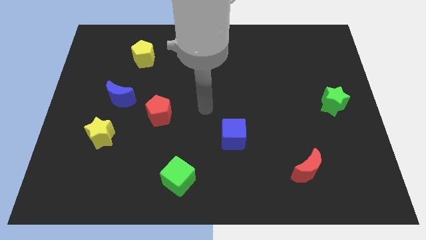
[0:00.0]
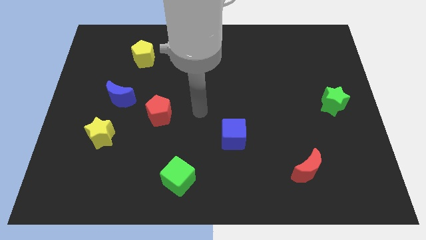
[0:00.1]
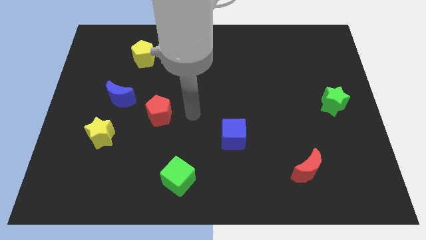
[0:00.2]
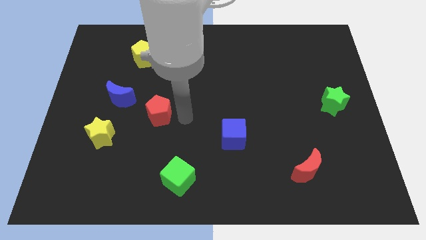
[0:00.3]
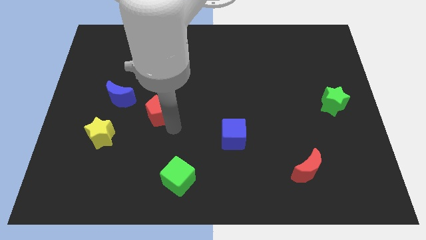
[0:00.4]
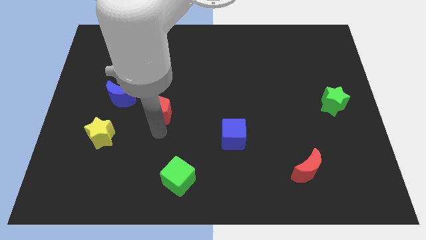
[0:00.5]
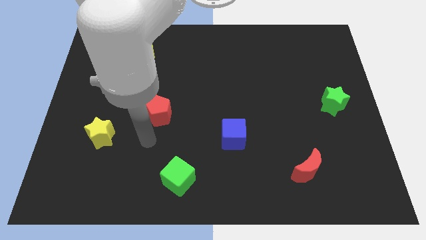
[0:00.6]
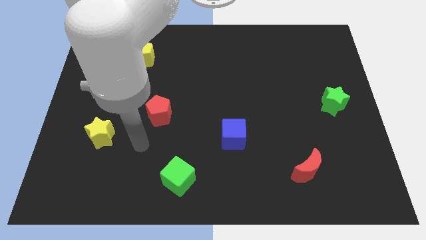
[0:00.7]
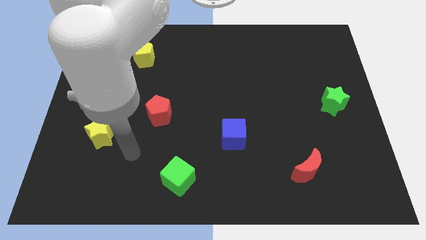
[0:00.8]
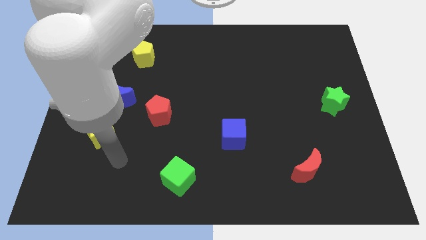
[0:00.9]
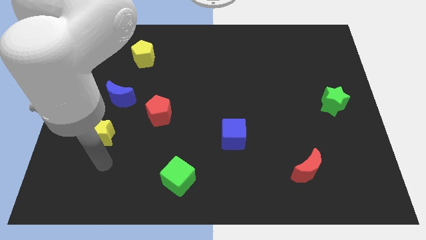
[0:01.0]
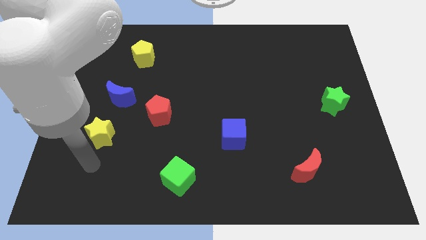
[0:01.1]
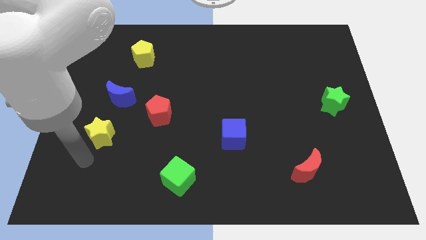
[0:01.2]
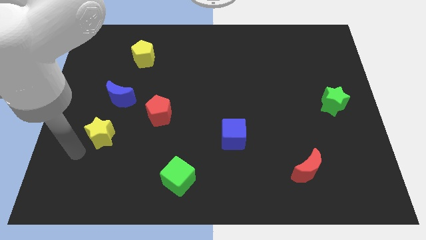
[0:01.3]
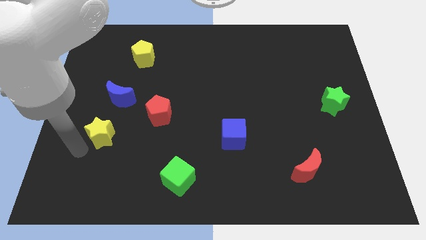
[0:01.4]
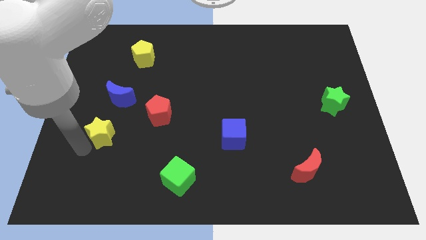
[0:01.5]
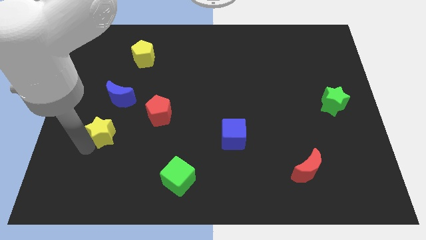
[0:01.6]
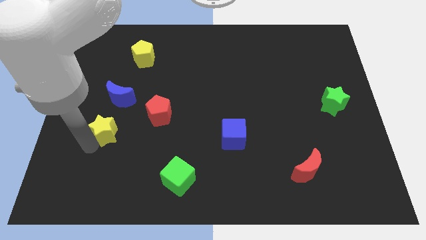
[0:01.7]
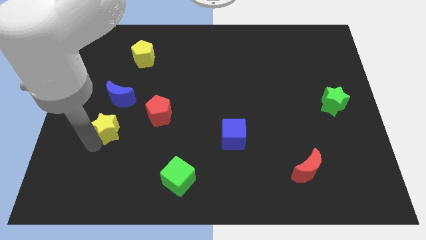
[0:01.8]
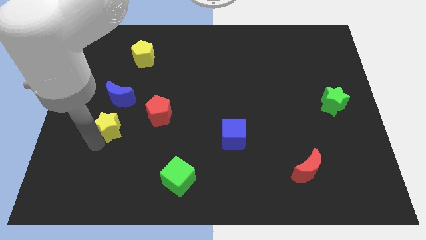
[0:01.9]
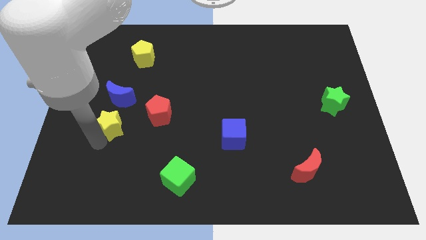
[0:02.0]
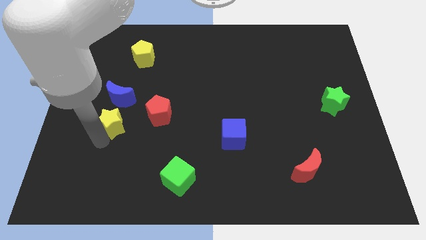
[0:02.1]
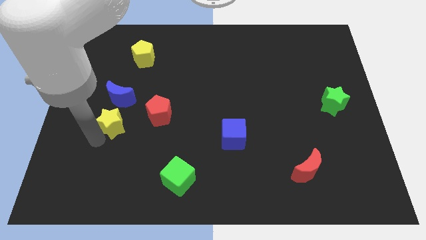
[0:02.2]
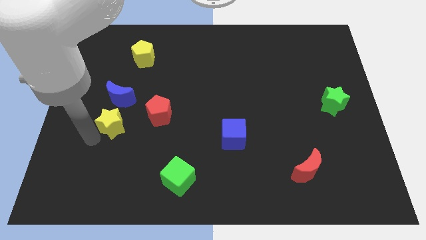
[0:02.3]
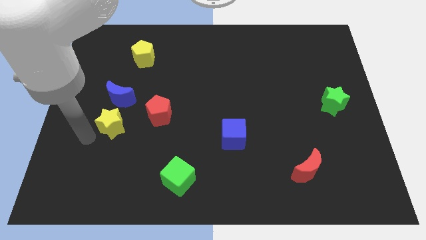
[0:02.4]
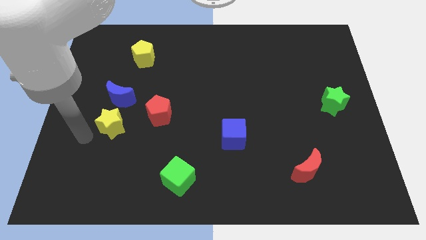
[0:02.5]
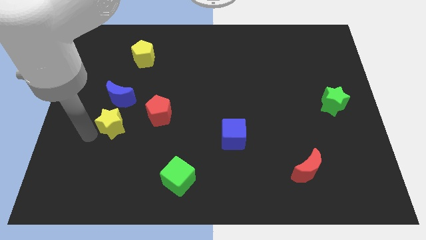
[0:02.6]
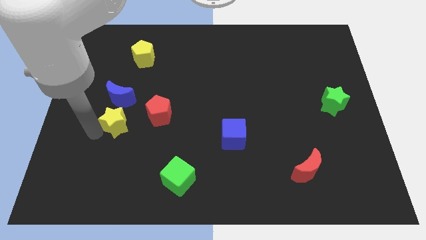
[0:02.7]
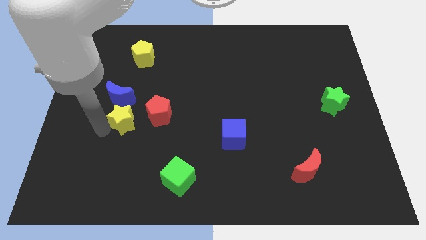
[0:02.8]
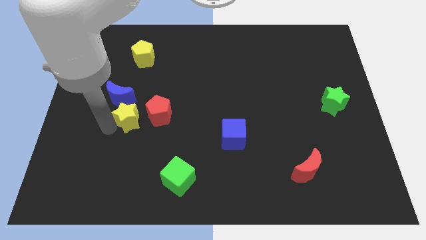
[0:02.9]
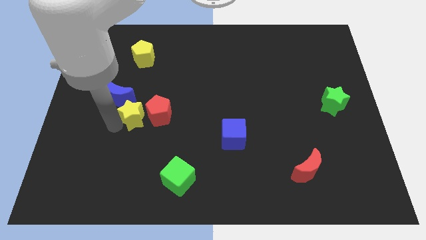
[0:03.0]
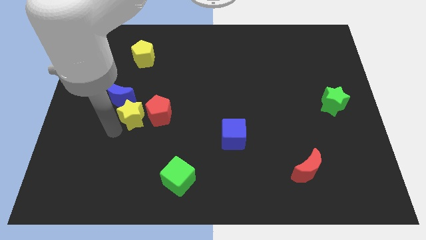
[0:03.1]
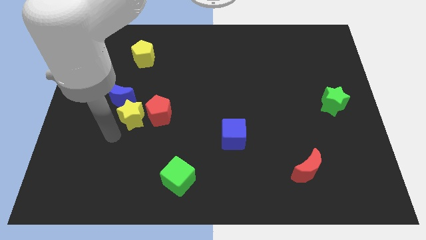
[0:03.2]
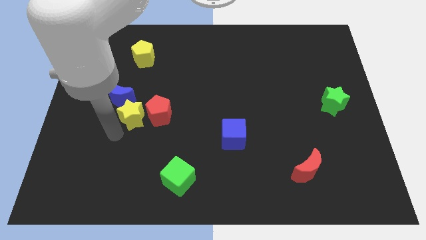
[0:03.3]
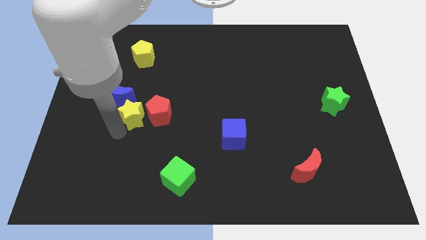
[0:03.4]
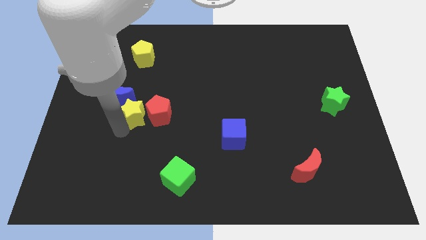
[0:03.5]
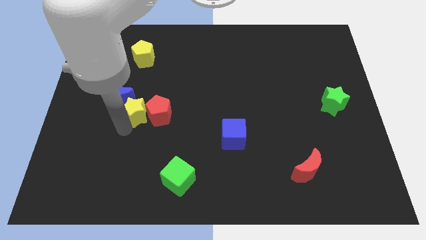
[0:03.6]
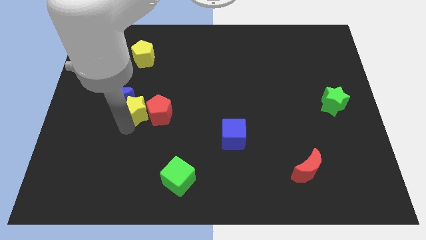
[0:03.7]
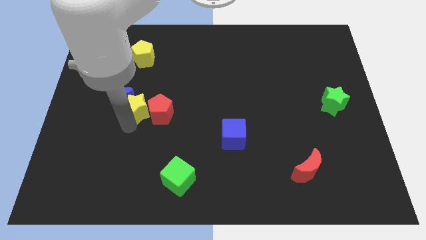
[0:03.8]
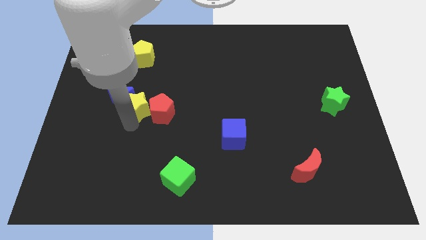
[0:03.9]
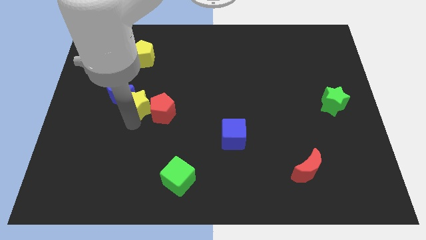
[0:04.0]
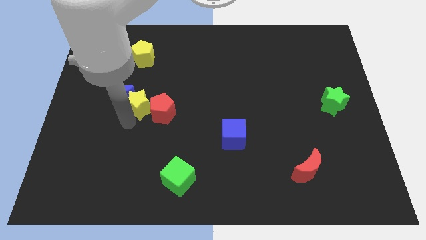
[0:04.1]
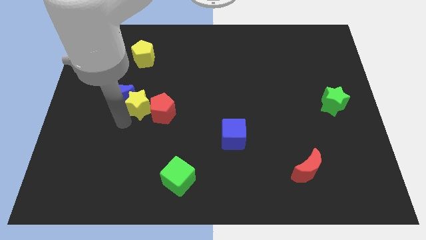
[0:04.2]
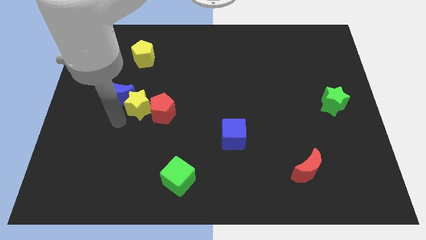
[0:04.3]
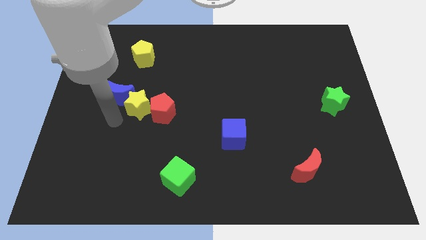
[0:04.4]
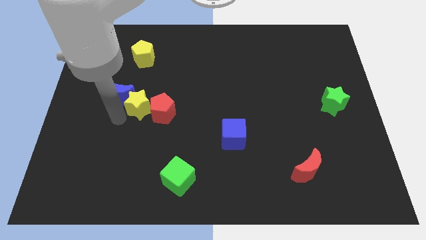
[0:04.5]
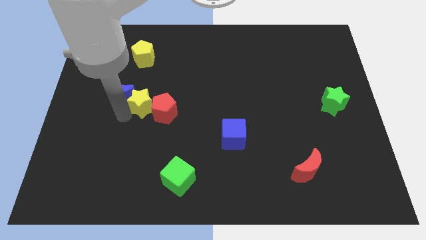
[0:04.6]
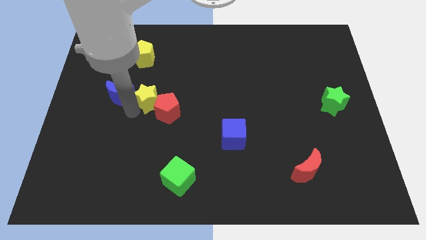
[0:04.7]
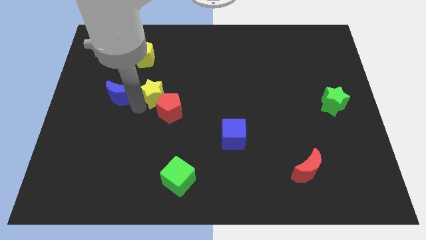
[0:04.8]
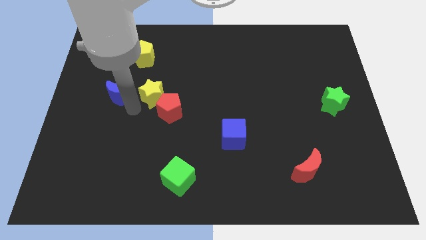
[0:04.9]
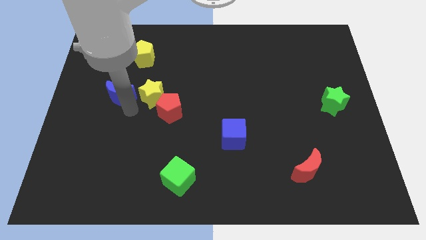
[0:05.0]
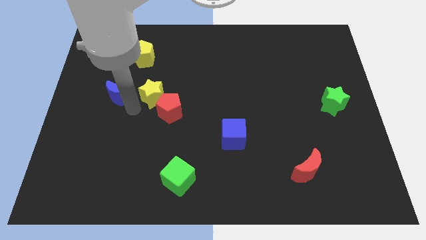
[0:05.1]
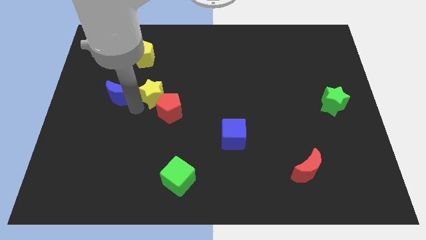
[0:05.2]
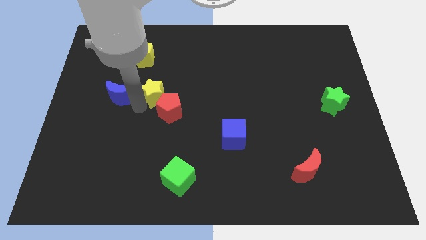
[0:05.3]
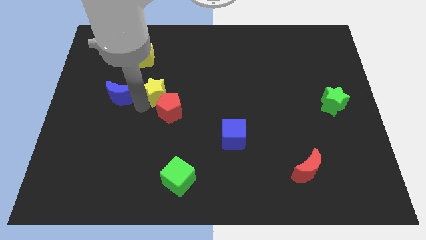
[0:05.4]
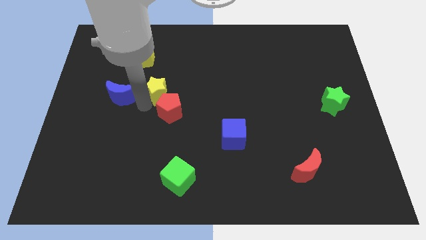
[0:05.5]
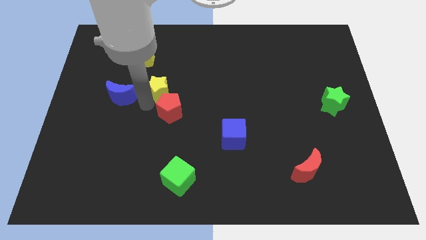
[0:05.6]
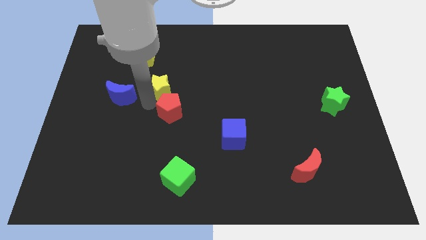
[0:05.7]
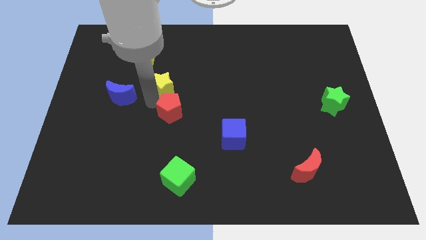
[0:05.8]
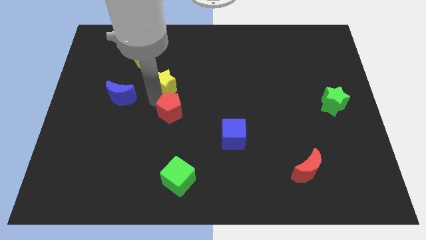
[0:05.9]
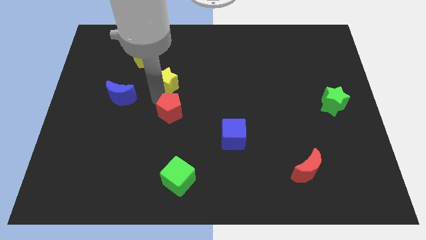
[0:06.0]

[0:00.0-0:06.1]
slide the yellow star upwards and to the right diagonally

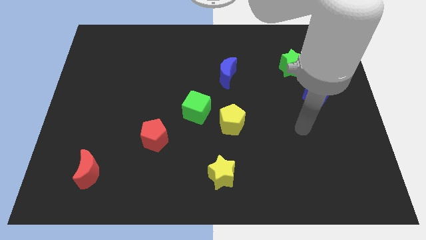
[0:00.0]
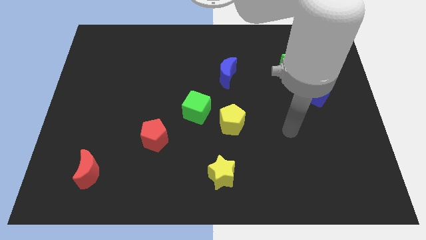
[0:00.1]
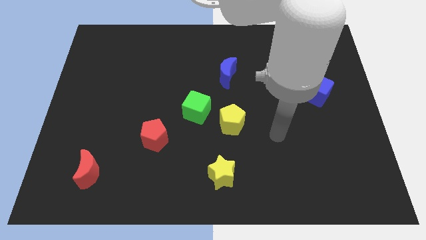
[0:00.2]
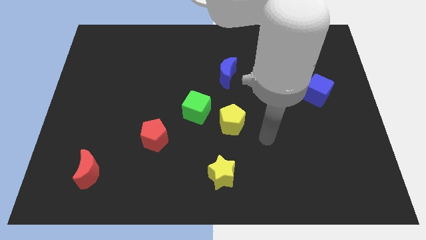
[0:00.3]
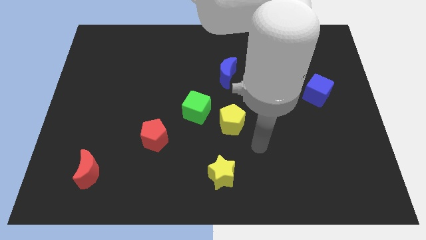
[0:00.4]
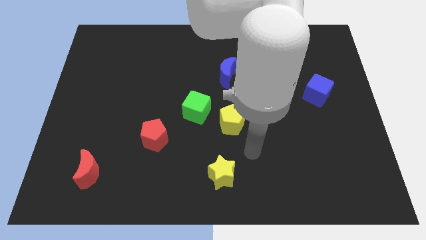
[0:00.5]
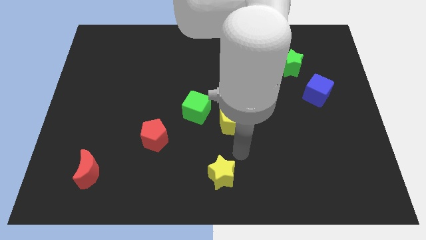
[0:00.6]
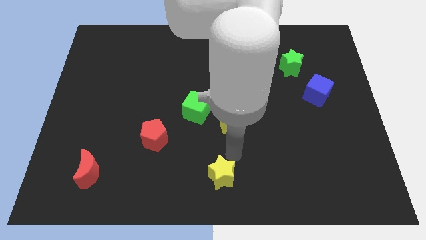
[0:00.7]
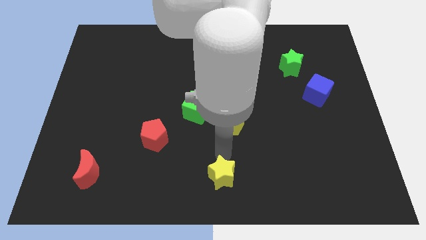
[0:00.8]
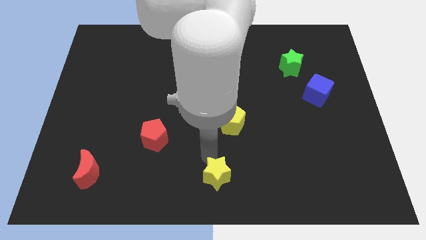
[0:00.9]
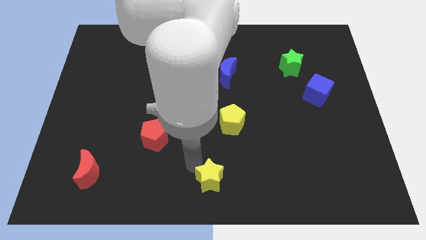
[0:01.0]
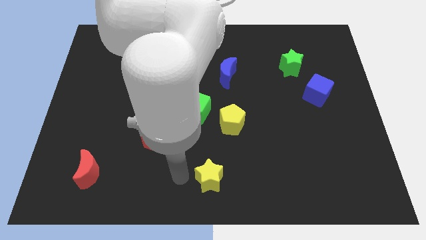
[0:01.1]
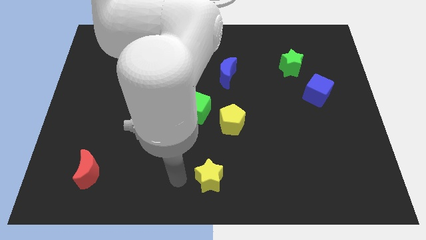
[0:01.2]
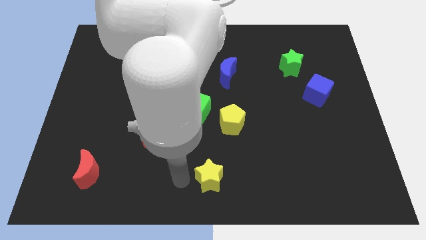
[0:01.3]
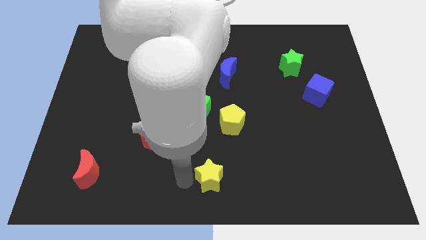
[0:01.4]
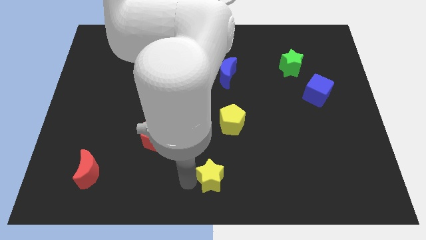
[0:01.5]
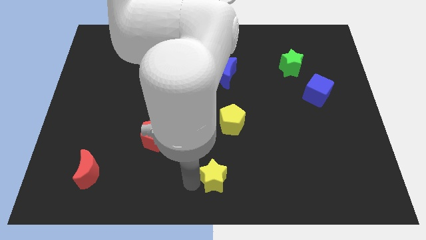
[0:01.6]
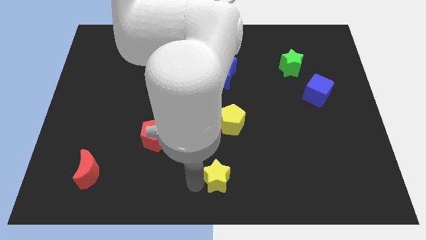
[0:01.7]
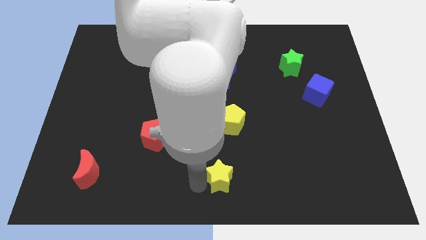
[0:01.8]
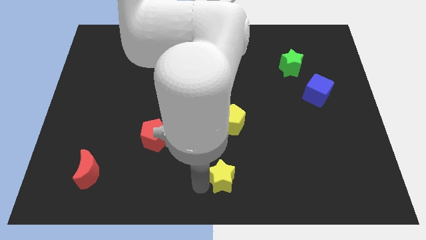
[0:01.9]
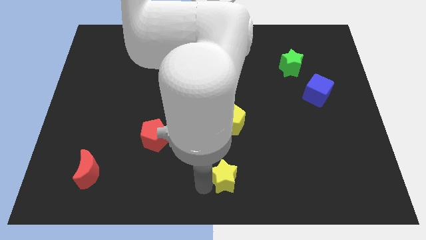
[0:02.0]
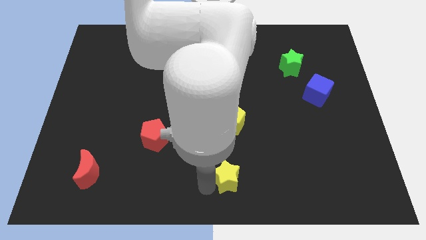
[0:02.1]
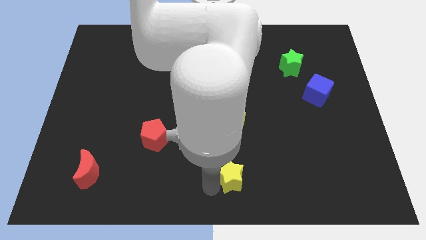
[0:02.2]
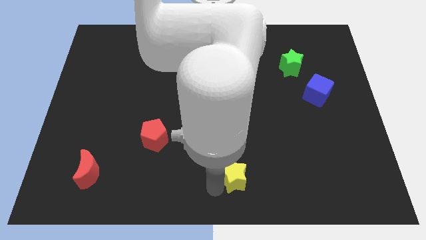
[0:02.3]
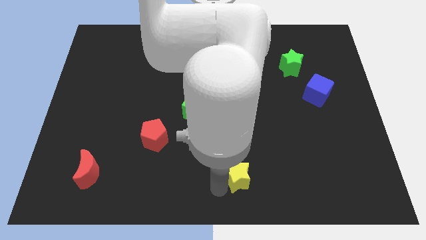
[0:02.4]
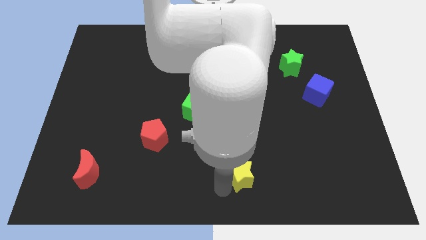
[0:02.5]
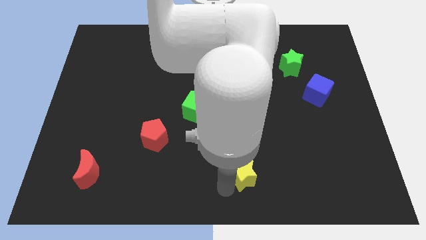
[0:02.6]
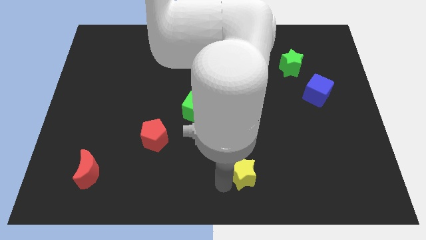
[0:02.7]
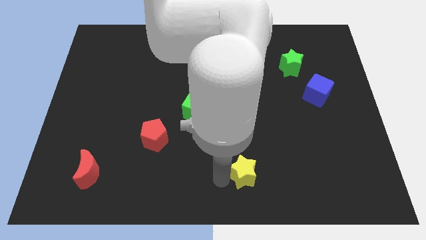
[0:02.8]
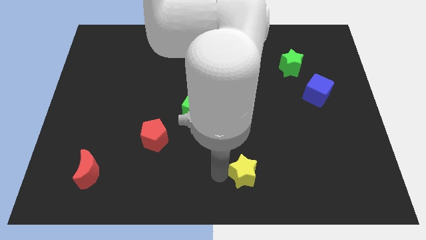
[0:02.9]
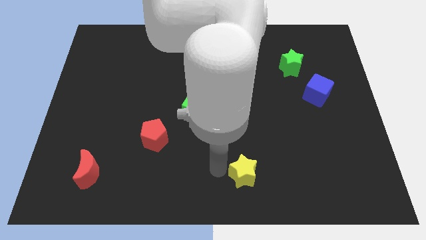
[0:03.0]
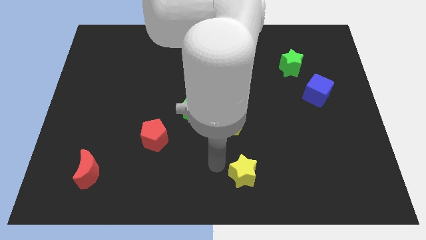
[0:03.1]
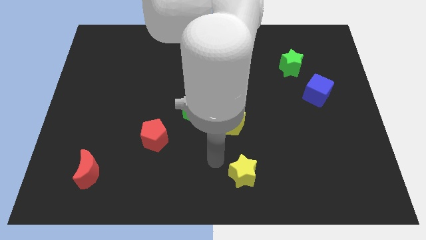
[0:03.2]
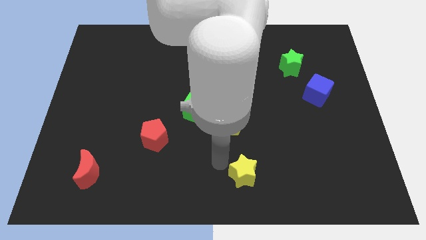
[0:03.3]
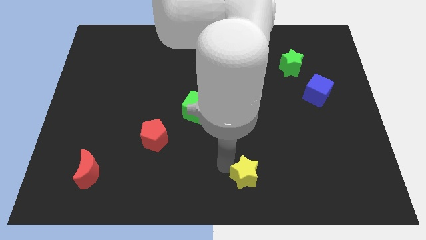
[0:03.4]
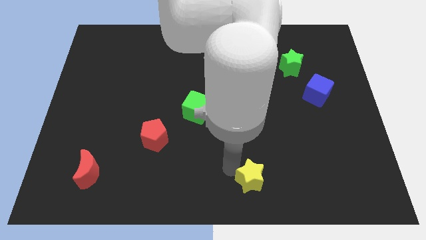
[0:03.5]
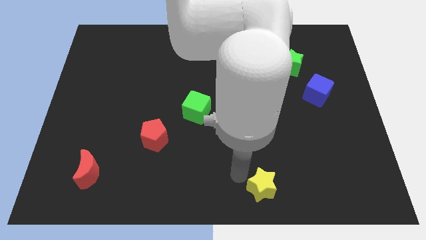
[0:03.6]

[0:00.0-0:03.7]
slightly push the yellow star to the right
